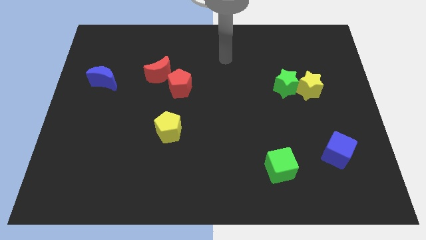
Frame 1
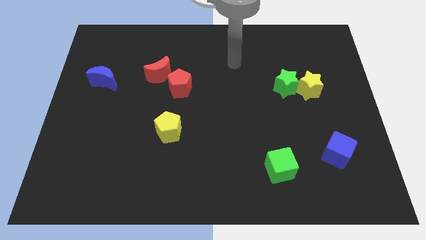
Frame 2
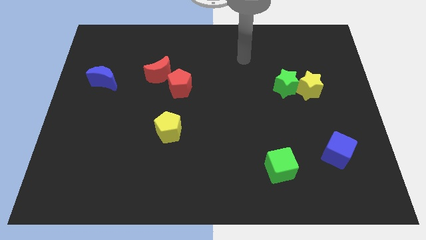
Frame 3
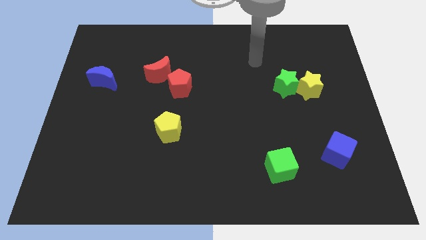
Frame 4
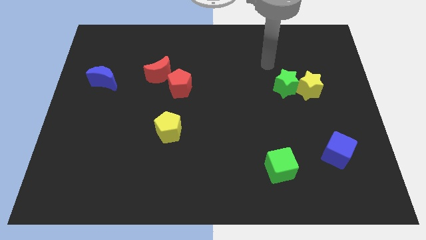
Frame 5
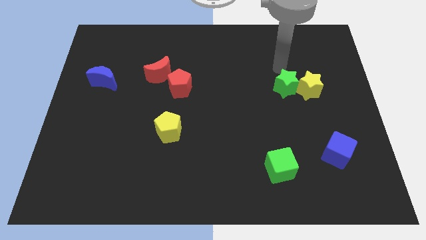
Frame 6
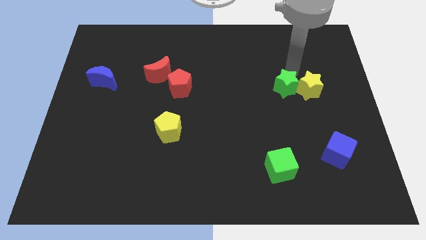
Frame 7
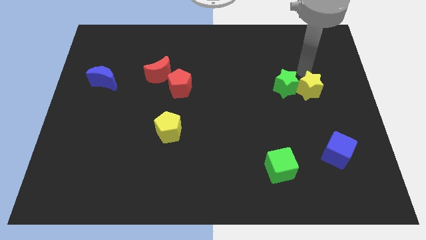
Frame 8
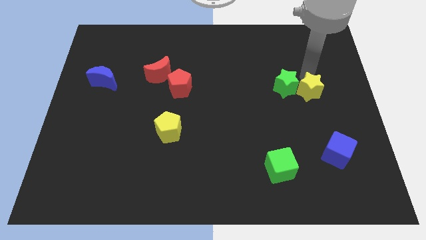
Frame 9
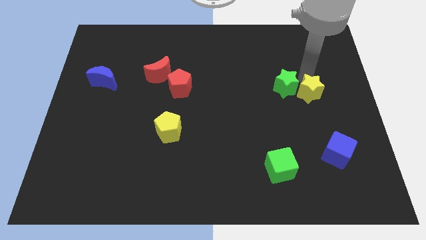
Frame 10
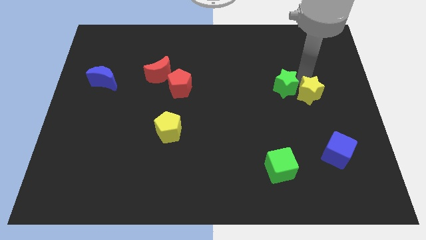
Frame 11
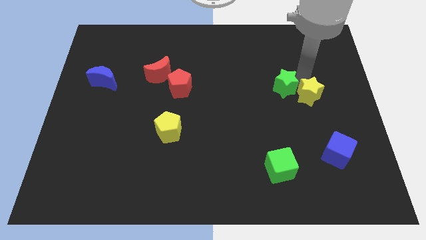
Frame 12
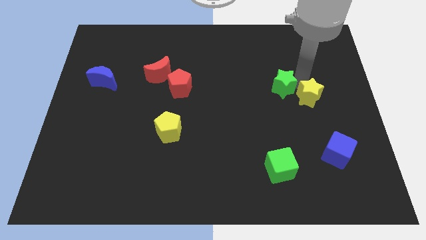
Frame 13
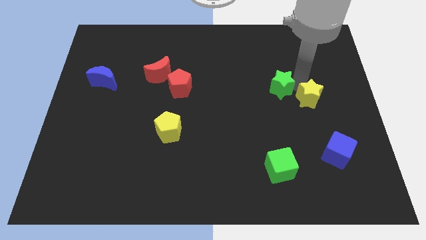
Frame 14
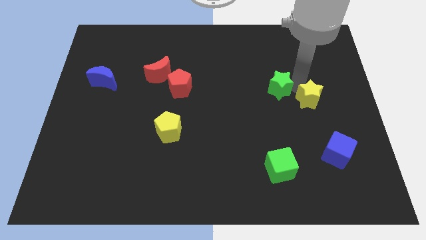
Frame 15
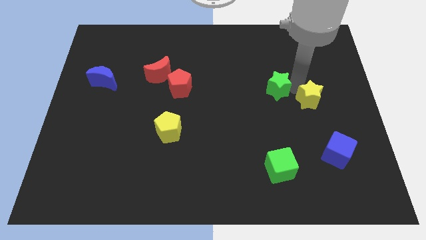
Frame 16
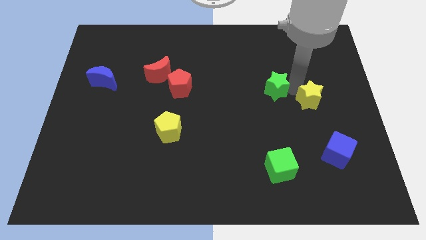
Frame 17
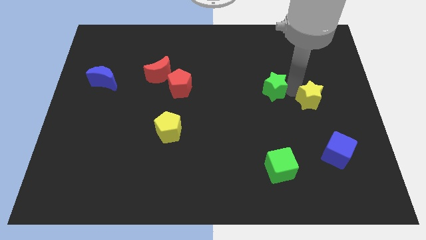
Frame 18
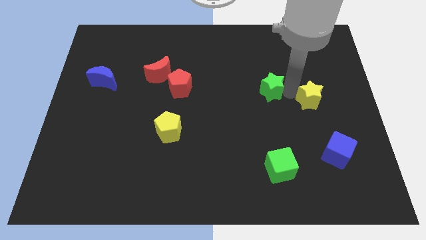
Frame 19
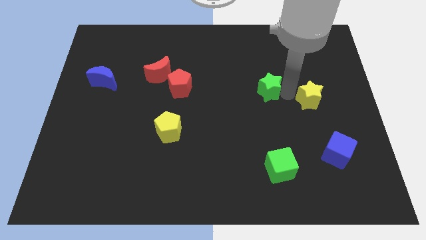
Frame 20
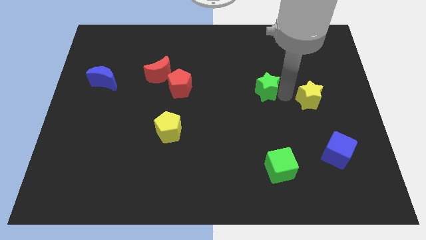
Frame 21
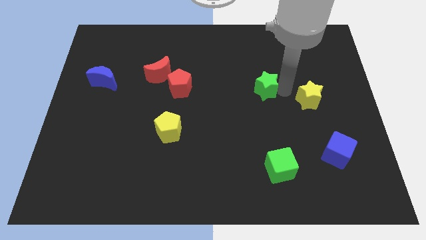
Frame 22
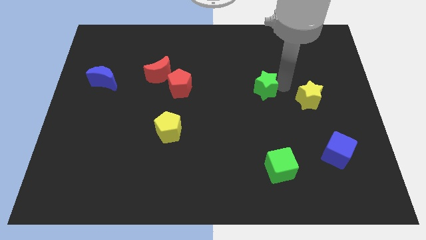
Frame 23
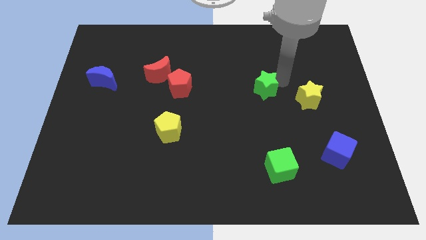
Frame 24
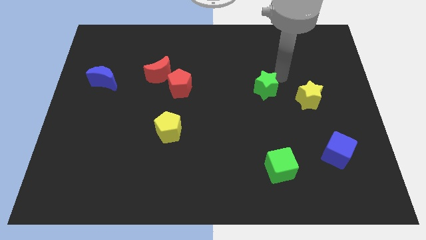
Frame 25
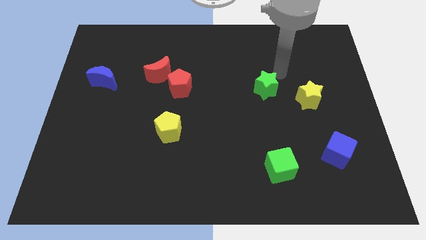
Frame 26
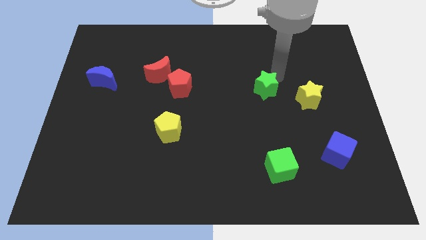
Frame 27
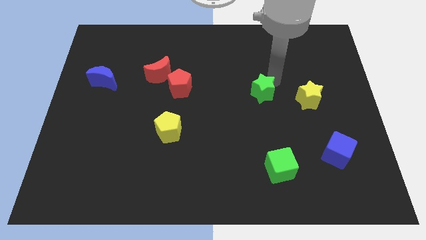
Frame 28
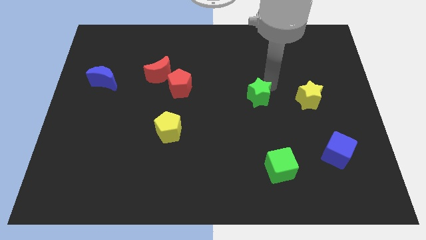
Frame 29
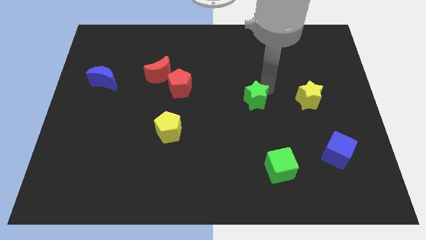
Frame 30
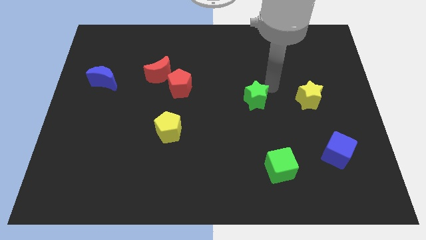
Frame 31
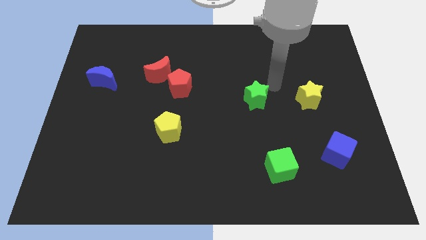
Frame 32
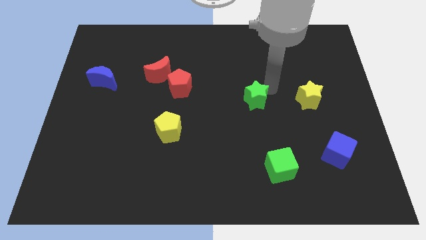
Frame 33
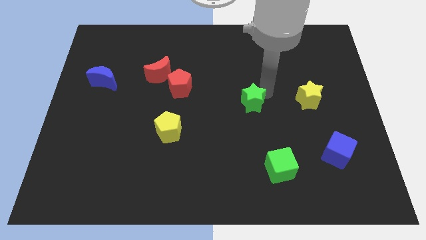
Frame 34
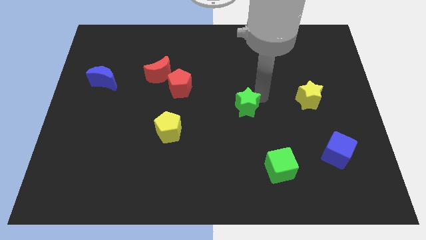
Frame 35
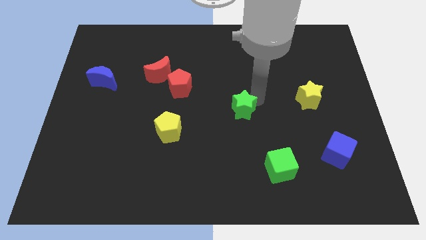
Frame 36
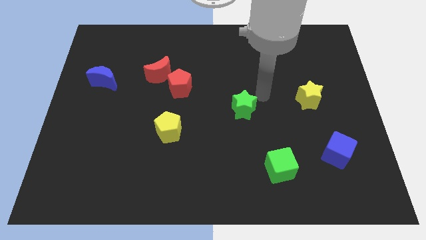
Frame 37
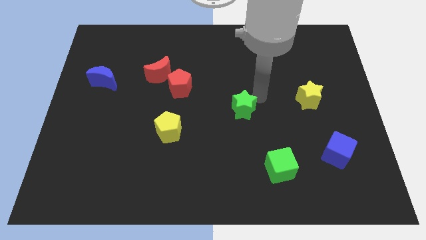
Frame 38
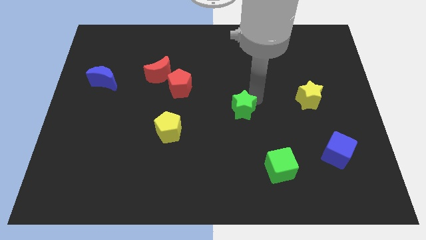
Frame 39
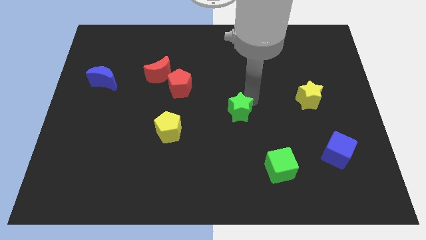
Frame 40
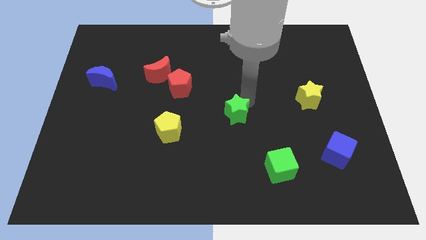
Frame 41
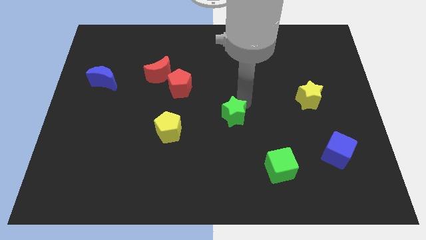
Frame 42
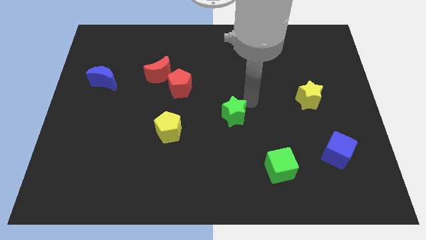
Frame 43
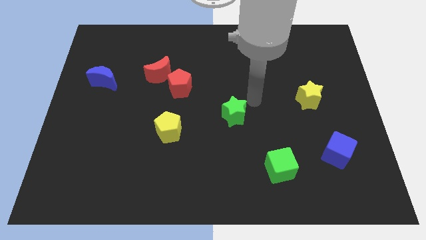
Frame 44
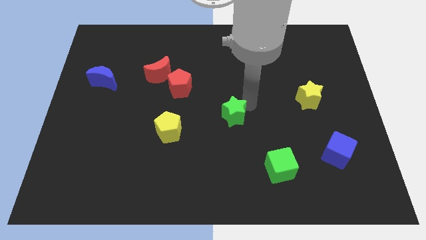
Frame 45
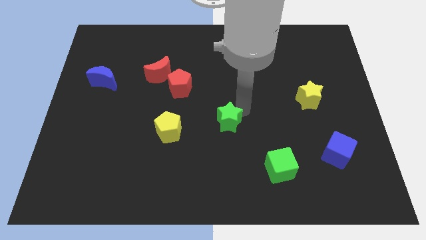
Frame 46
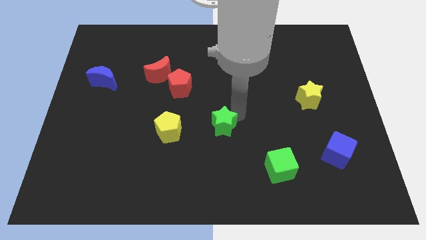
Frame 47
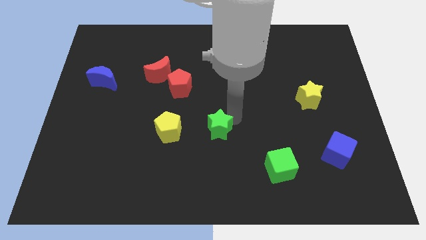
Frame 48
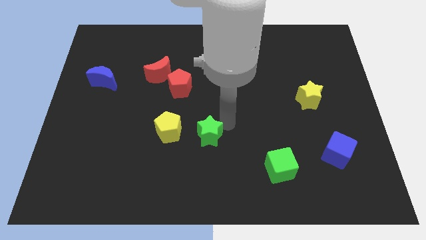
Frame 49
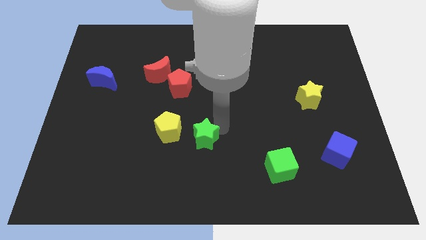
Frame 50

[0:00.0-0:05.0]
put the green star to the bottom right side of the yellow pentagon

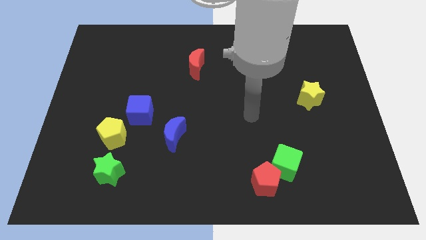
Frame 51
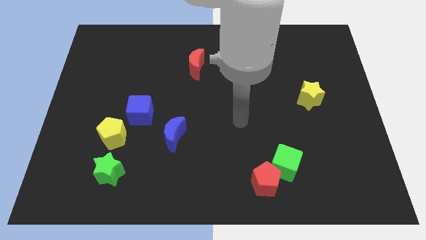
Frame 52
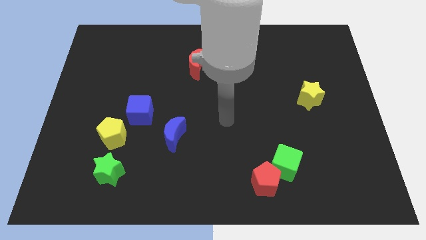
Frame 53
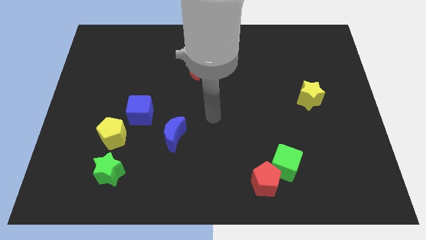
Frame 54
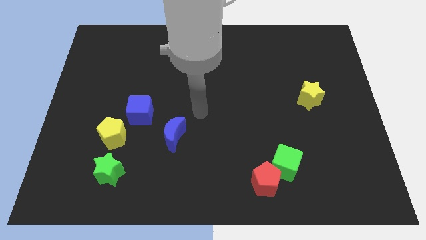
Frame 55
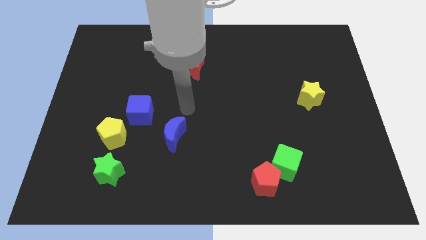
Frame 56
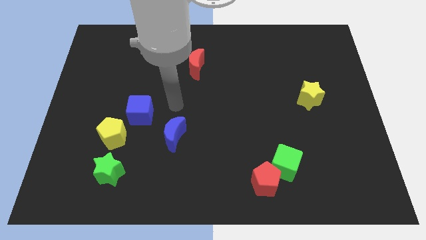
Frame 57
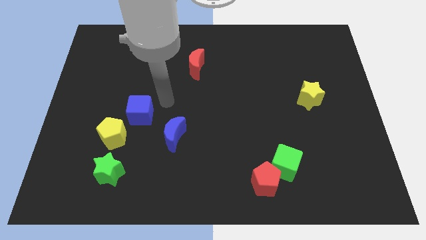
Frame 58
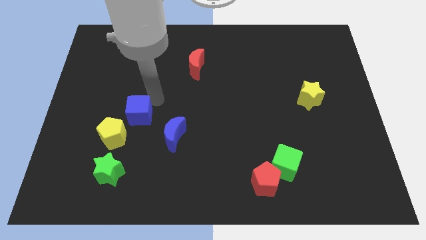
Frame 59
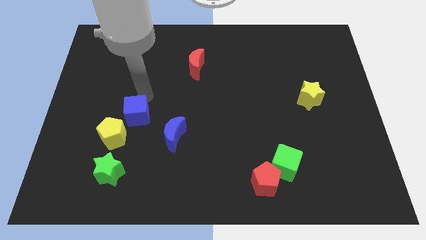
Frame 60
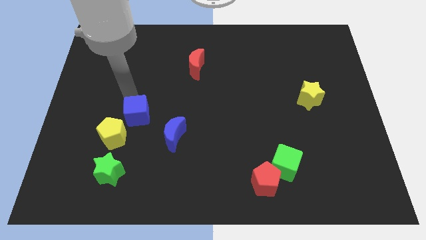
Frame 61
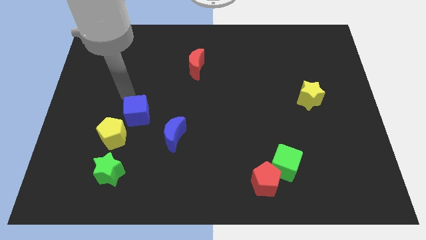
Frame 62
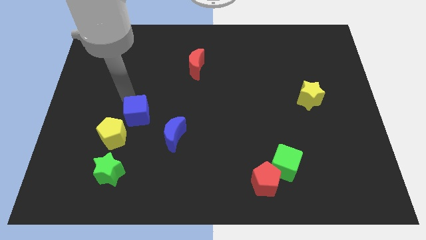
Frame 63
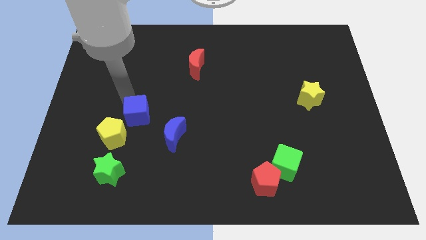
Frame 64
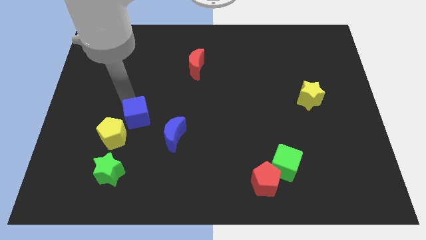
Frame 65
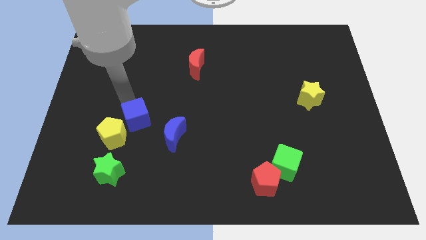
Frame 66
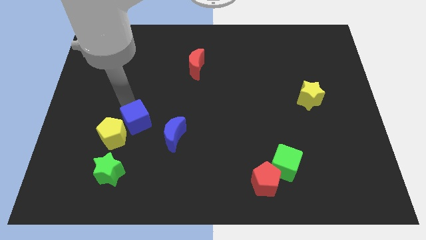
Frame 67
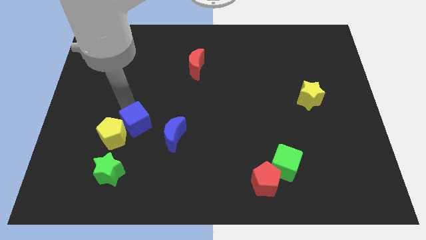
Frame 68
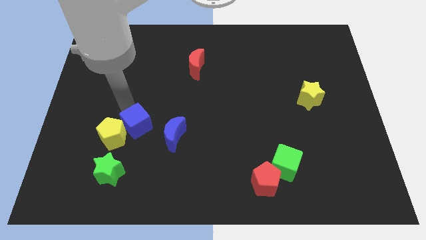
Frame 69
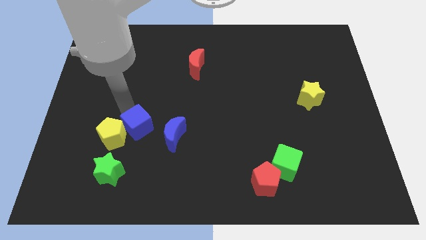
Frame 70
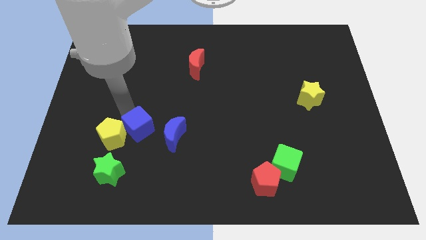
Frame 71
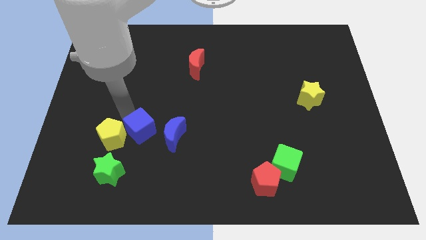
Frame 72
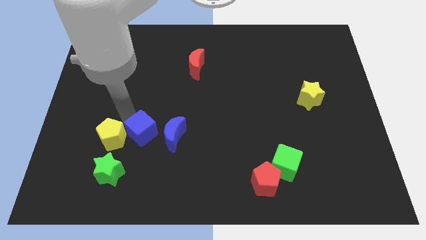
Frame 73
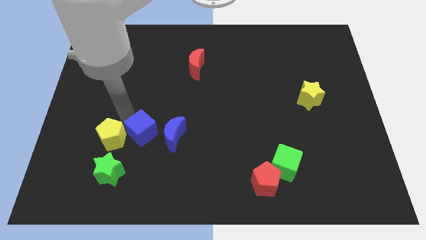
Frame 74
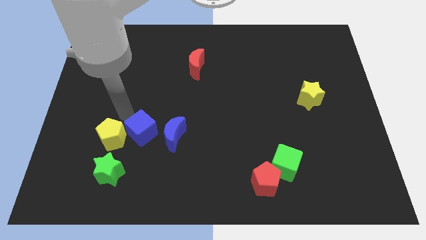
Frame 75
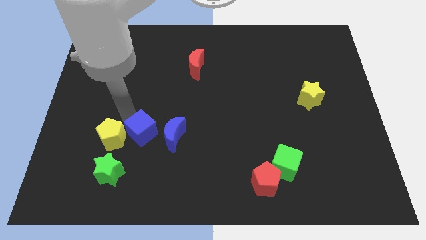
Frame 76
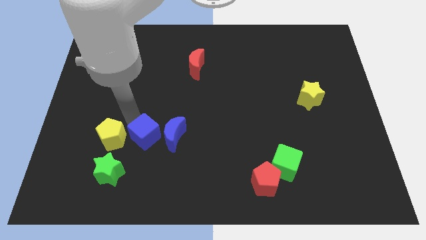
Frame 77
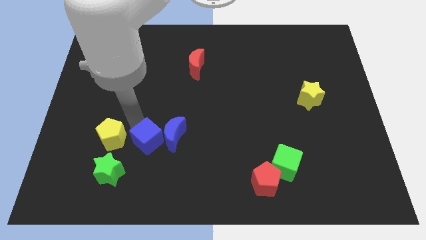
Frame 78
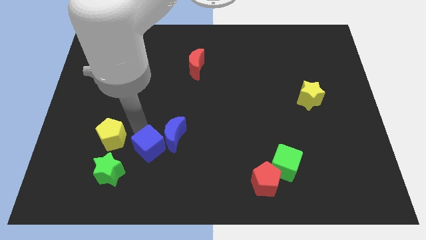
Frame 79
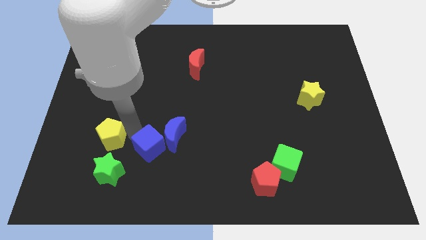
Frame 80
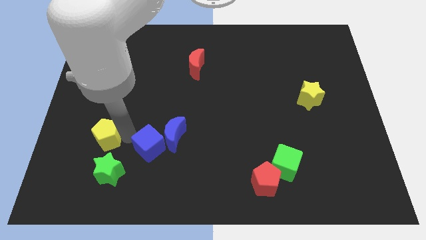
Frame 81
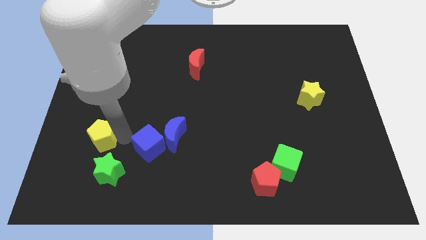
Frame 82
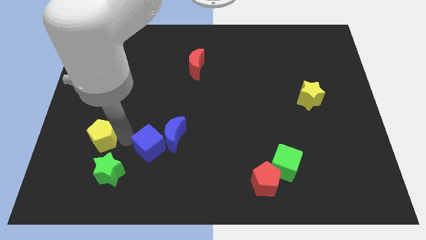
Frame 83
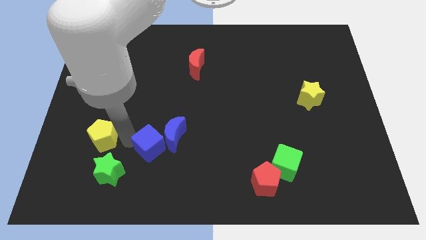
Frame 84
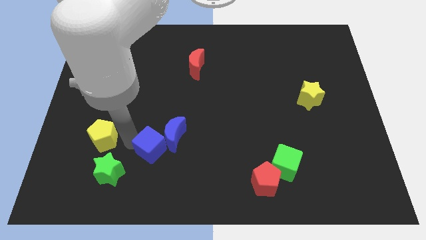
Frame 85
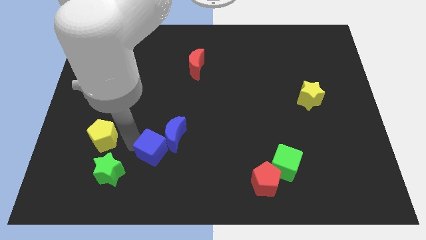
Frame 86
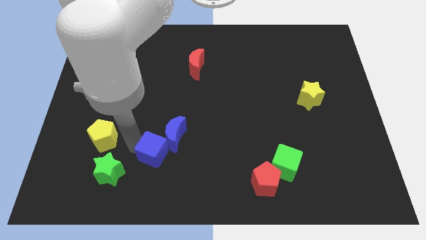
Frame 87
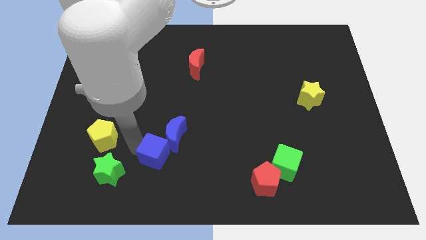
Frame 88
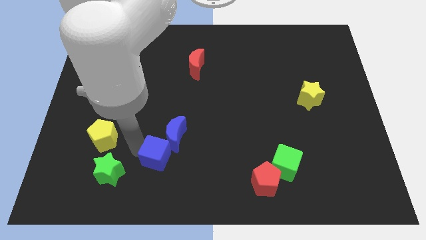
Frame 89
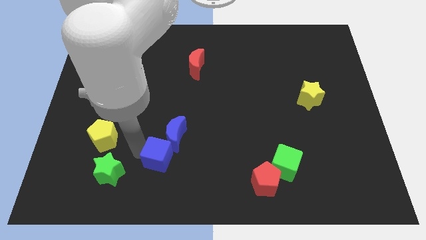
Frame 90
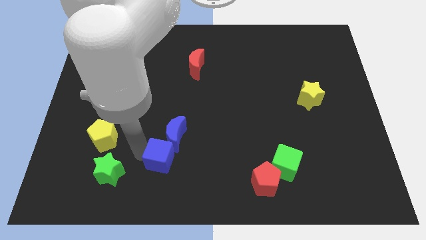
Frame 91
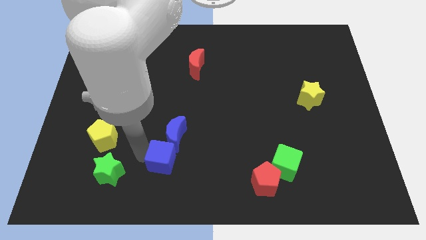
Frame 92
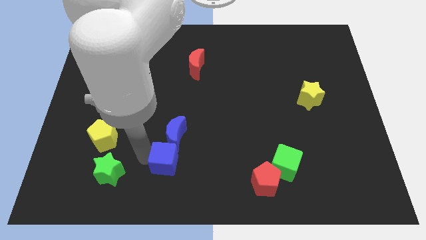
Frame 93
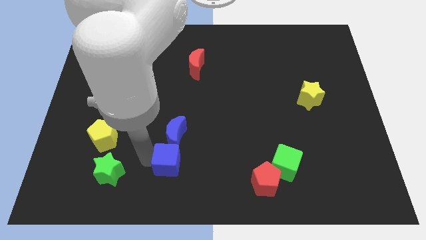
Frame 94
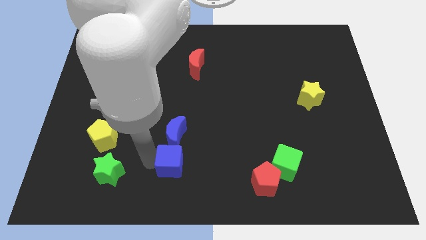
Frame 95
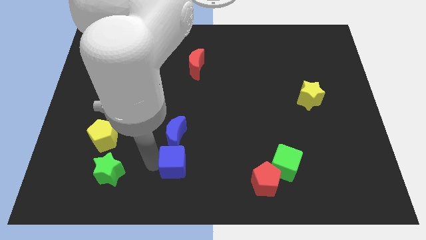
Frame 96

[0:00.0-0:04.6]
move the blue cube to the bottom right side of the blue moon
